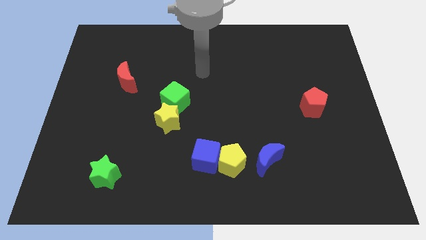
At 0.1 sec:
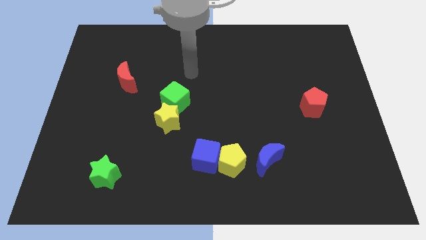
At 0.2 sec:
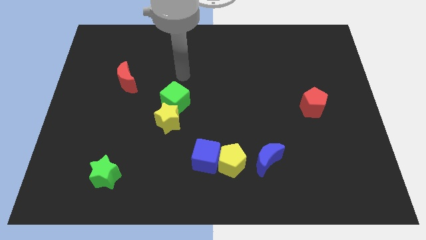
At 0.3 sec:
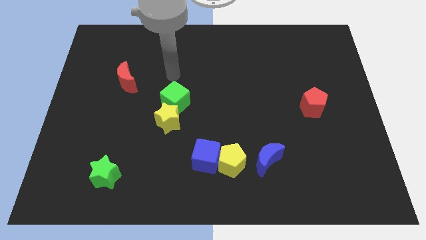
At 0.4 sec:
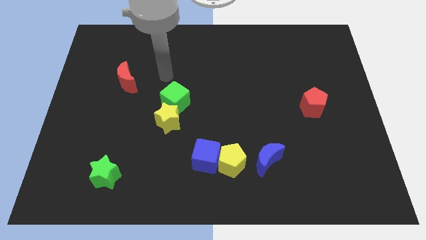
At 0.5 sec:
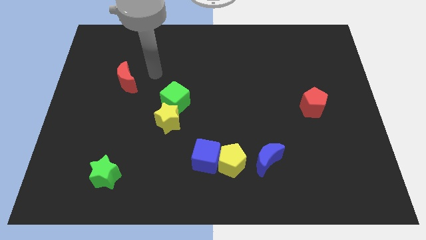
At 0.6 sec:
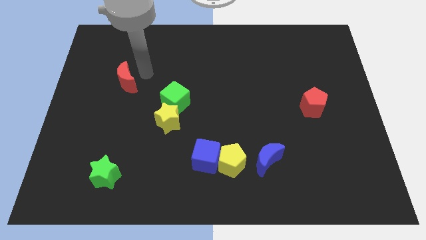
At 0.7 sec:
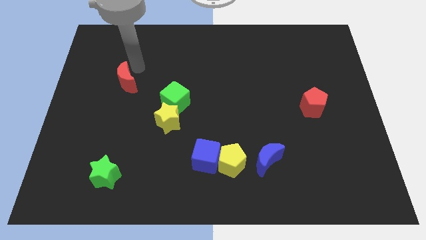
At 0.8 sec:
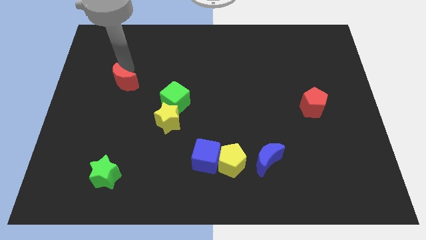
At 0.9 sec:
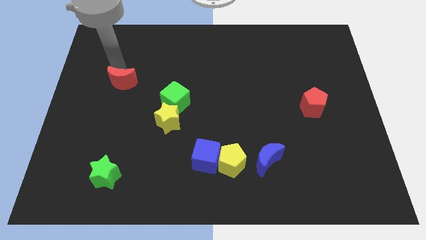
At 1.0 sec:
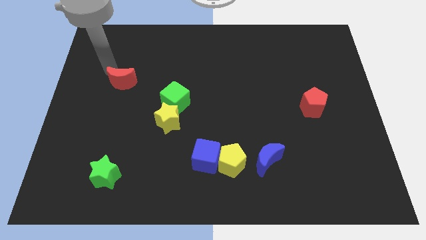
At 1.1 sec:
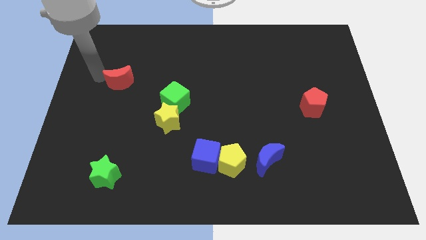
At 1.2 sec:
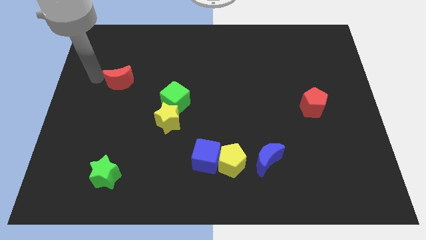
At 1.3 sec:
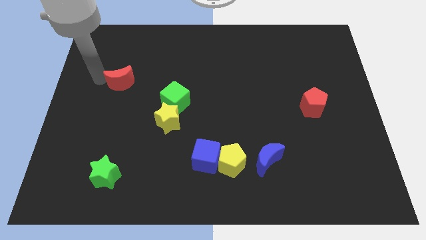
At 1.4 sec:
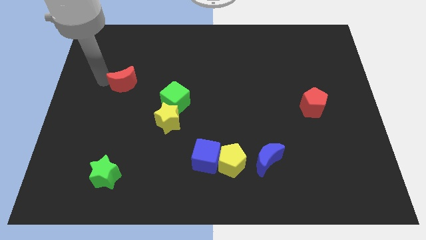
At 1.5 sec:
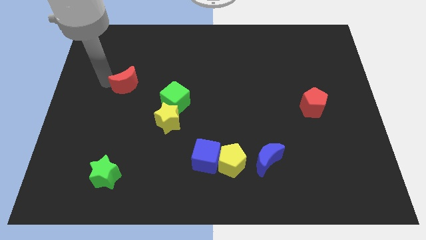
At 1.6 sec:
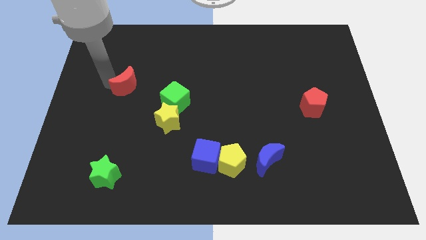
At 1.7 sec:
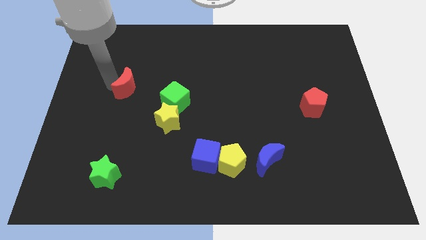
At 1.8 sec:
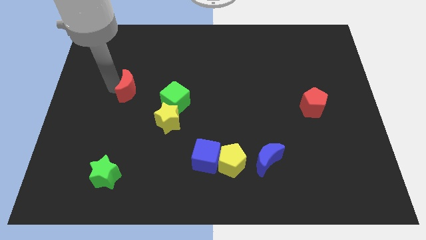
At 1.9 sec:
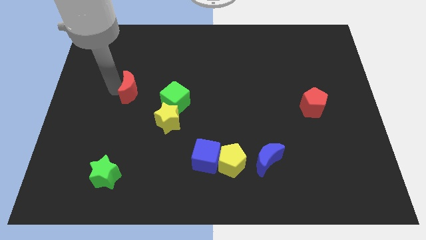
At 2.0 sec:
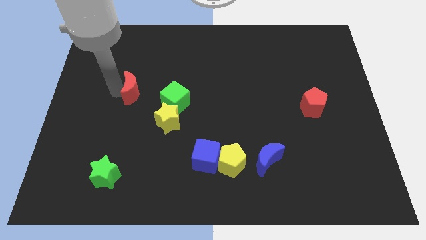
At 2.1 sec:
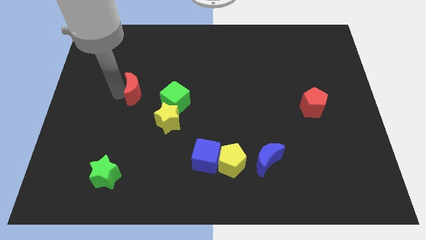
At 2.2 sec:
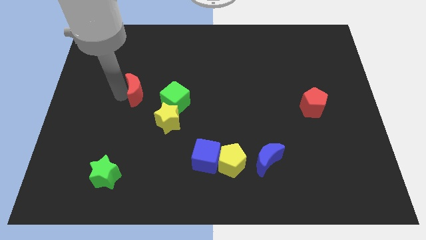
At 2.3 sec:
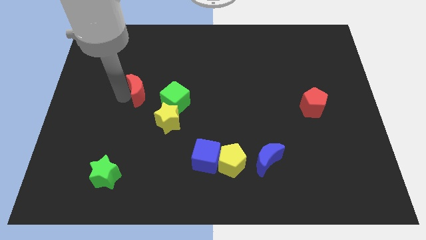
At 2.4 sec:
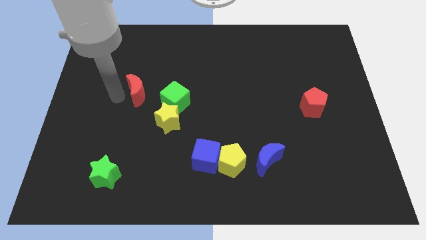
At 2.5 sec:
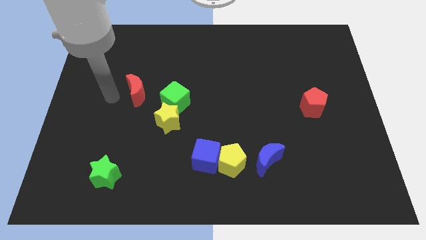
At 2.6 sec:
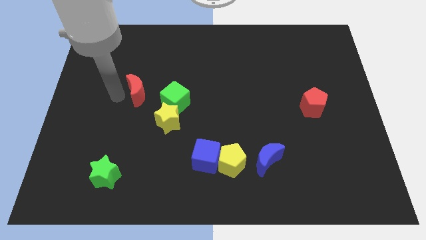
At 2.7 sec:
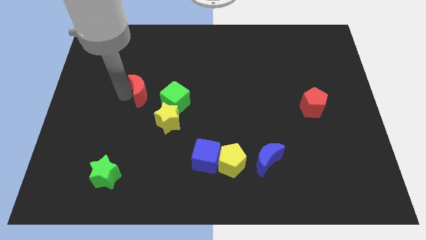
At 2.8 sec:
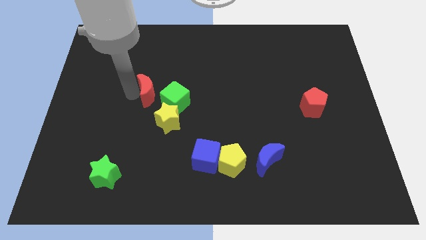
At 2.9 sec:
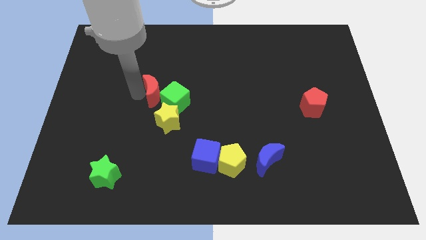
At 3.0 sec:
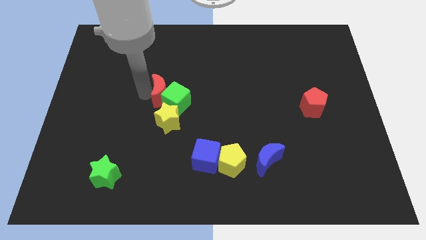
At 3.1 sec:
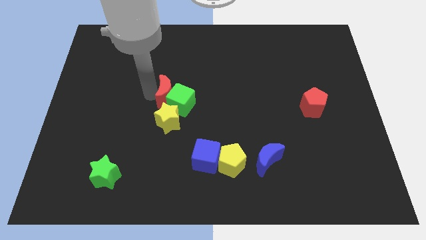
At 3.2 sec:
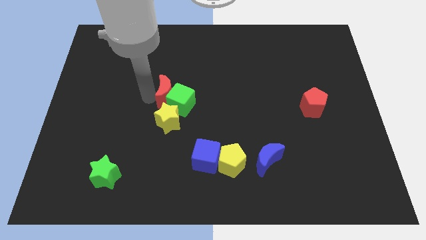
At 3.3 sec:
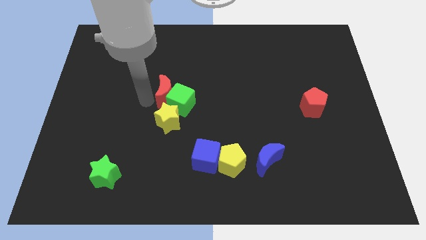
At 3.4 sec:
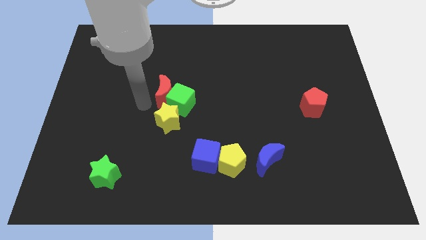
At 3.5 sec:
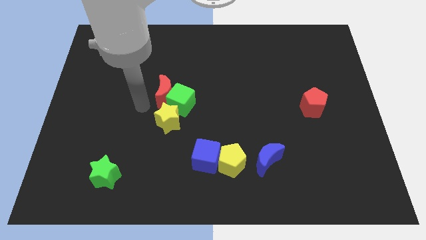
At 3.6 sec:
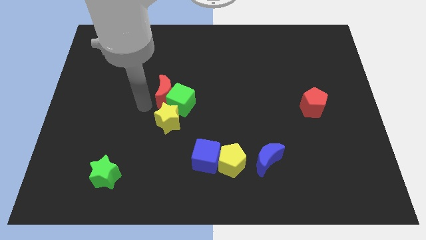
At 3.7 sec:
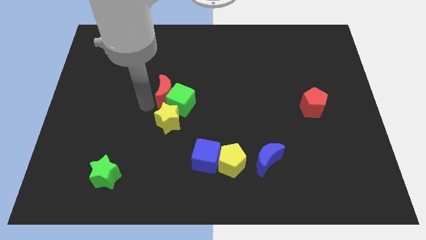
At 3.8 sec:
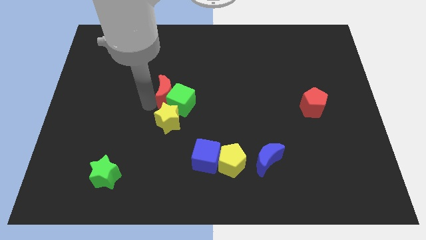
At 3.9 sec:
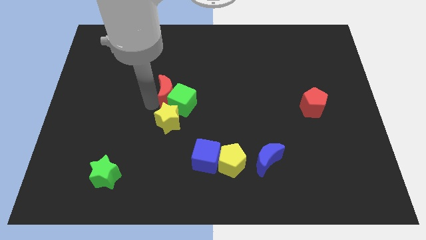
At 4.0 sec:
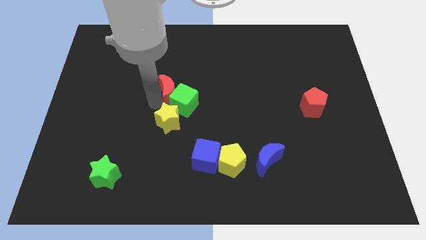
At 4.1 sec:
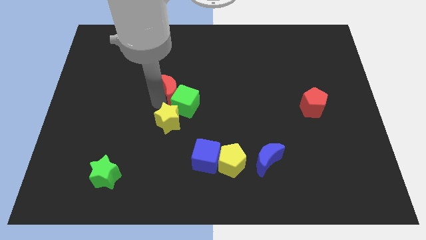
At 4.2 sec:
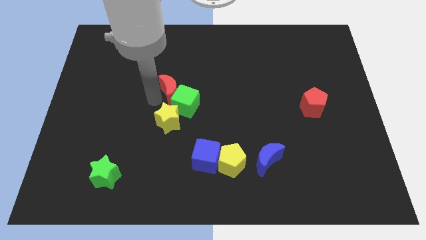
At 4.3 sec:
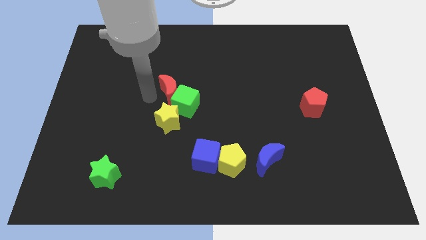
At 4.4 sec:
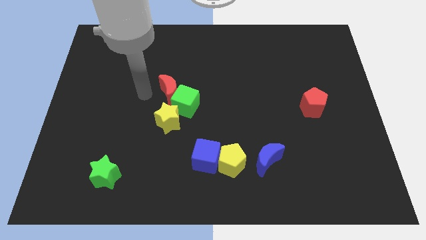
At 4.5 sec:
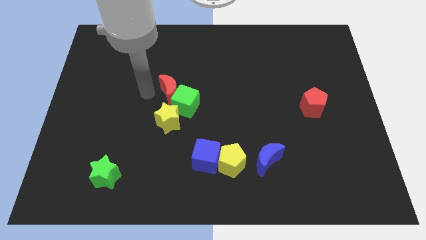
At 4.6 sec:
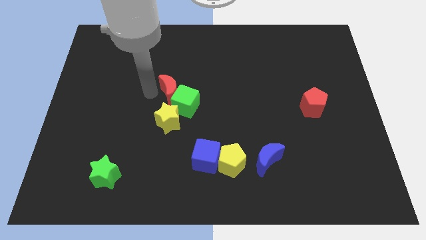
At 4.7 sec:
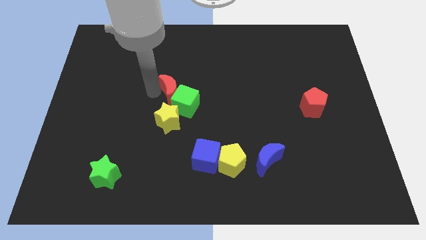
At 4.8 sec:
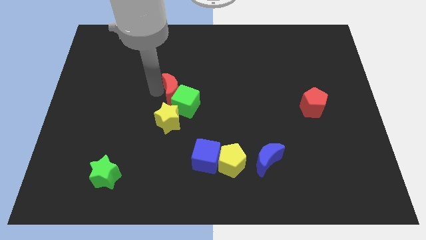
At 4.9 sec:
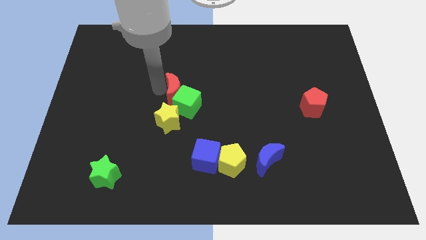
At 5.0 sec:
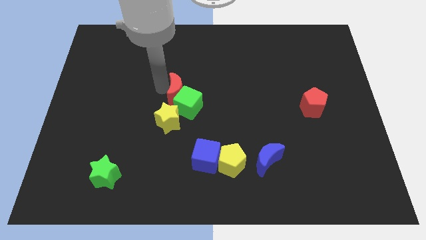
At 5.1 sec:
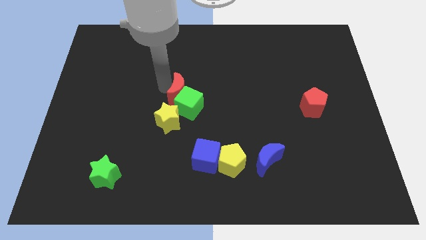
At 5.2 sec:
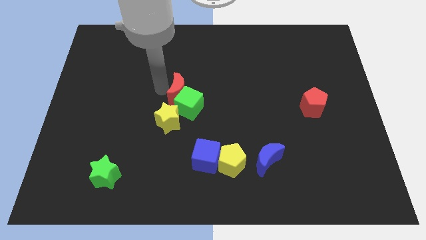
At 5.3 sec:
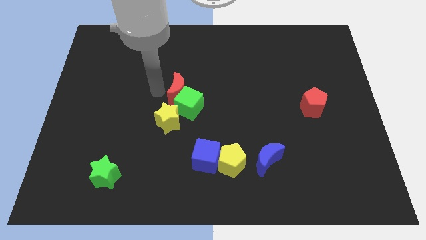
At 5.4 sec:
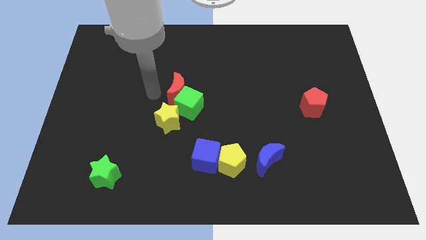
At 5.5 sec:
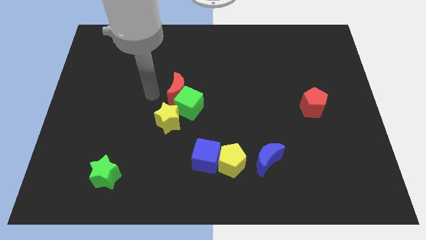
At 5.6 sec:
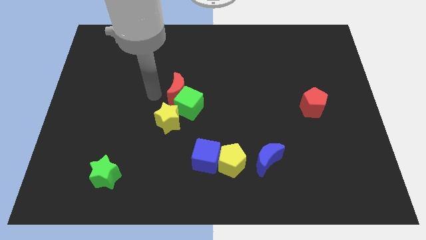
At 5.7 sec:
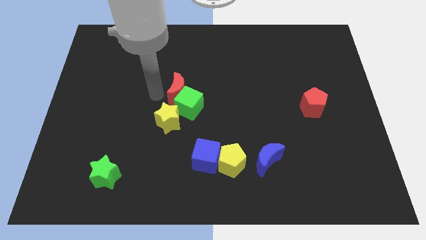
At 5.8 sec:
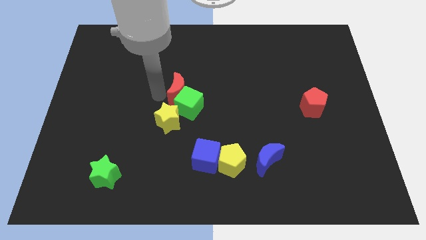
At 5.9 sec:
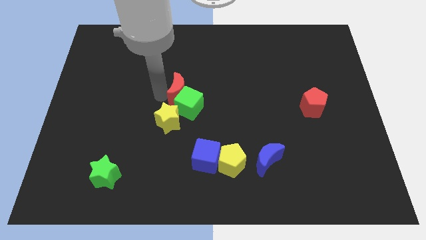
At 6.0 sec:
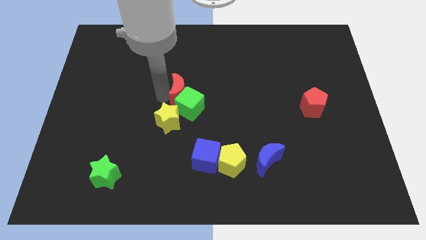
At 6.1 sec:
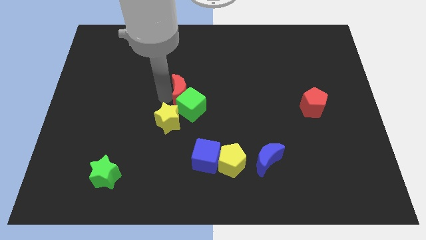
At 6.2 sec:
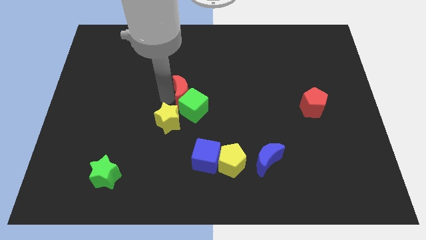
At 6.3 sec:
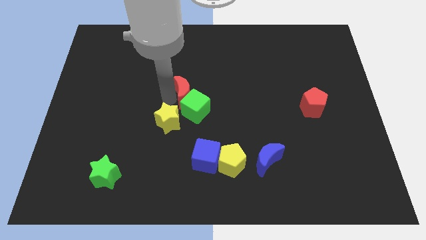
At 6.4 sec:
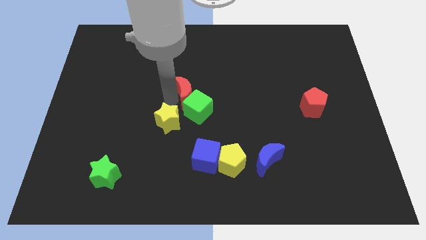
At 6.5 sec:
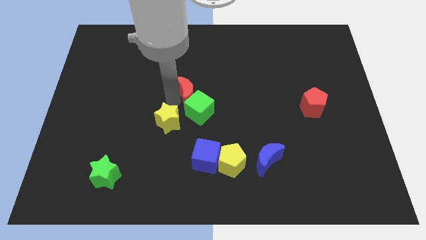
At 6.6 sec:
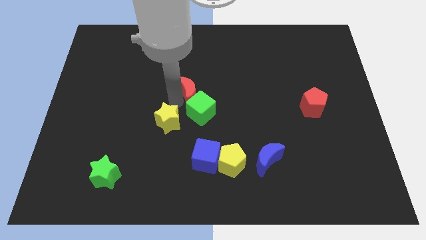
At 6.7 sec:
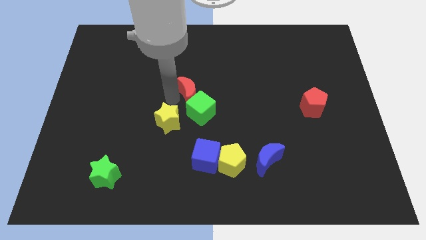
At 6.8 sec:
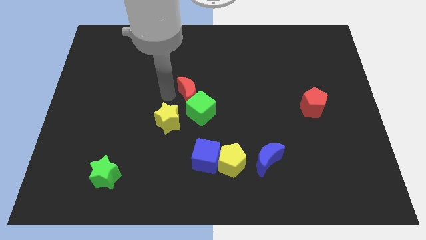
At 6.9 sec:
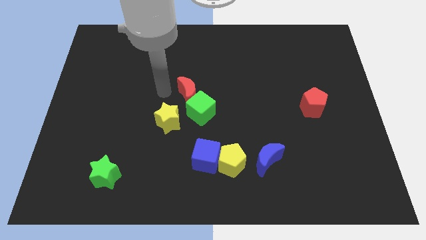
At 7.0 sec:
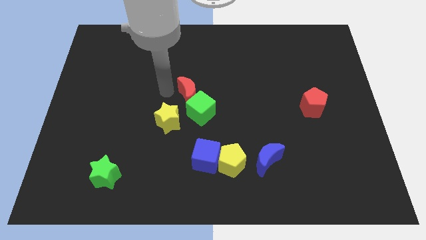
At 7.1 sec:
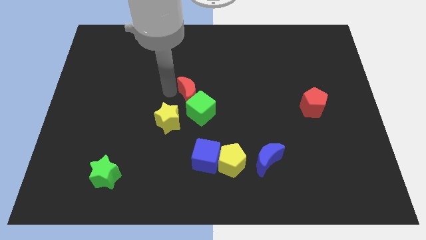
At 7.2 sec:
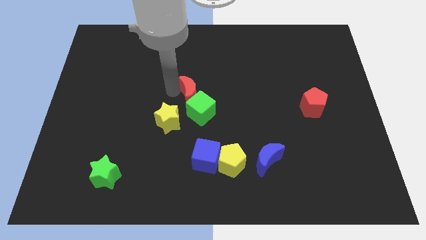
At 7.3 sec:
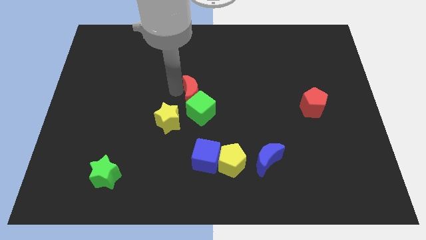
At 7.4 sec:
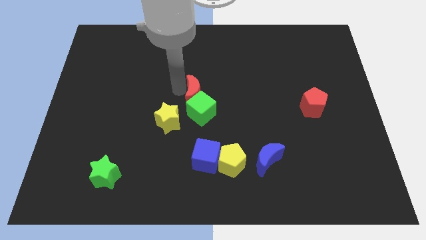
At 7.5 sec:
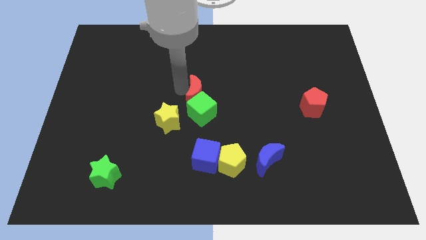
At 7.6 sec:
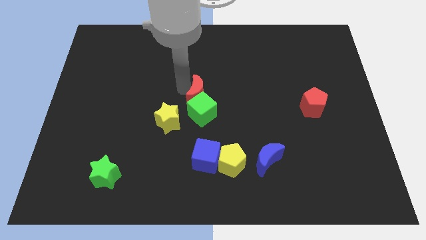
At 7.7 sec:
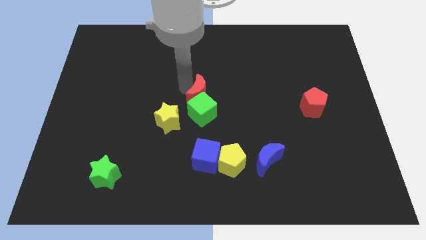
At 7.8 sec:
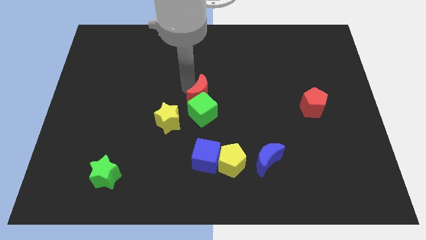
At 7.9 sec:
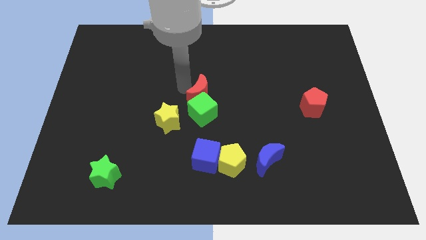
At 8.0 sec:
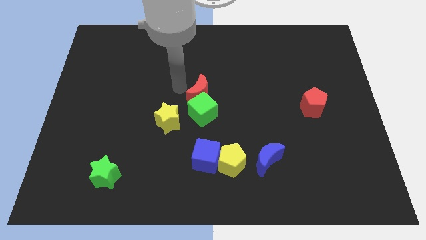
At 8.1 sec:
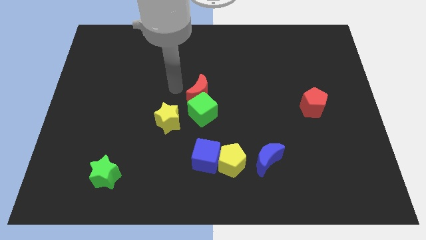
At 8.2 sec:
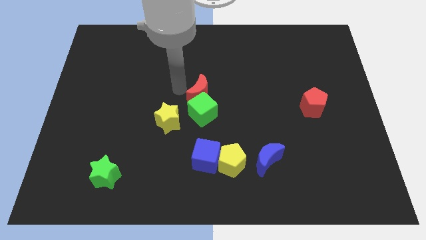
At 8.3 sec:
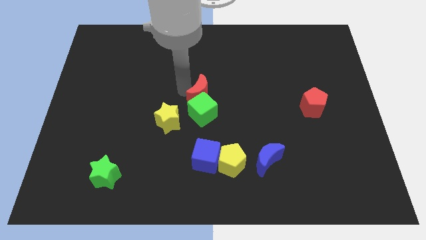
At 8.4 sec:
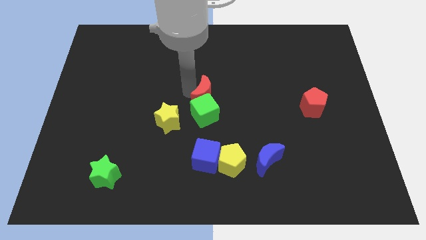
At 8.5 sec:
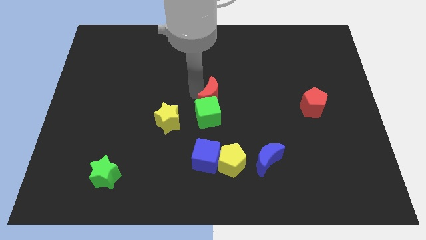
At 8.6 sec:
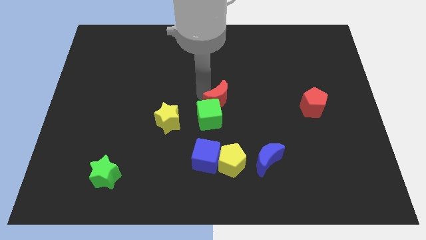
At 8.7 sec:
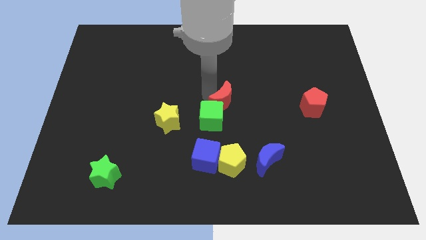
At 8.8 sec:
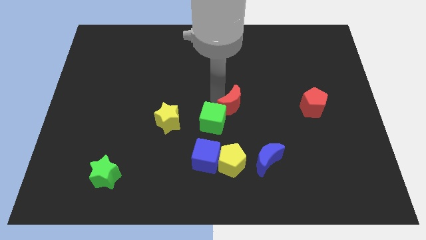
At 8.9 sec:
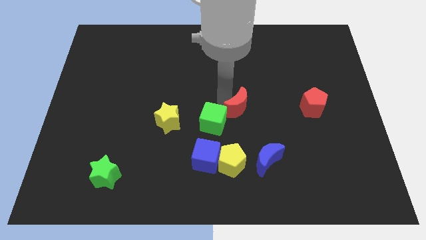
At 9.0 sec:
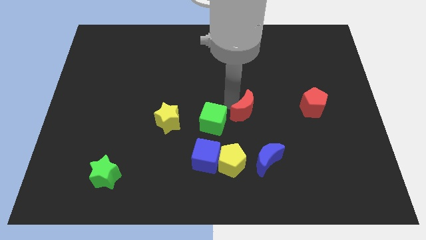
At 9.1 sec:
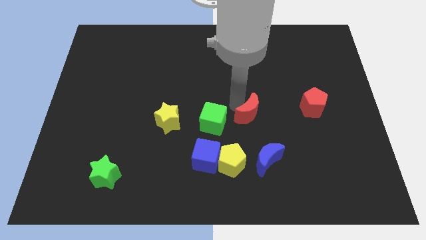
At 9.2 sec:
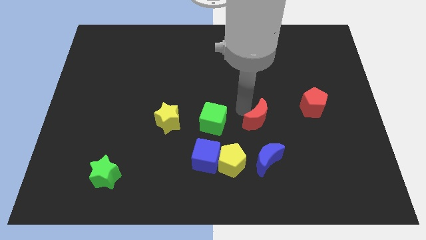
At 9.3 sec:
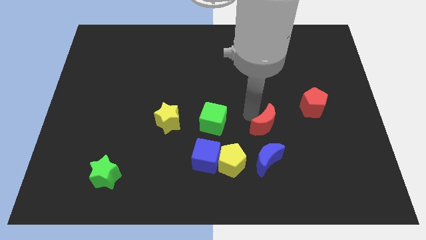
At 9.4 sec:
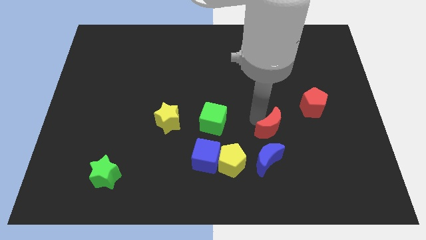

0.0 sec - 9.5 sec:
move the red moon diagonally up and to the right of the blue moon
